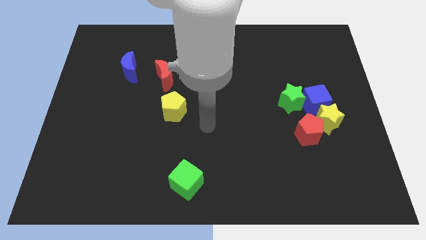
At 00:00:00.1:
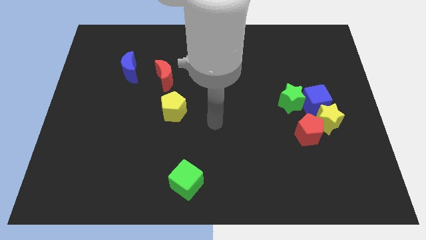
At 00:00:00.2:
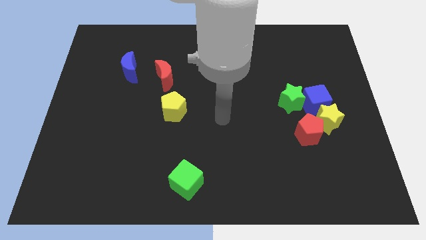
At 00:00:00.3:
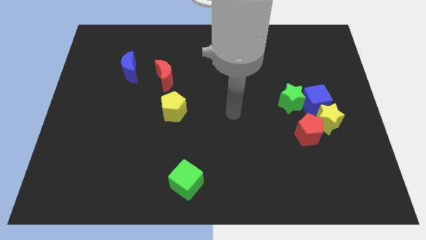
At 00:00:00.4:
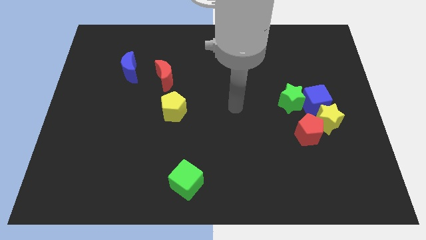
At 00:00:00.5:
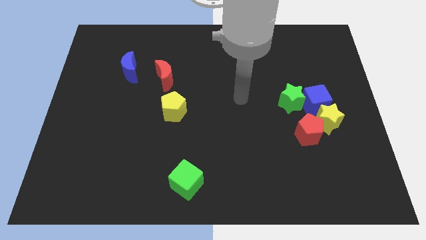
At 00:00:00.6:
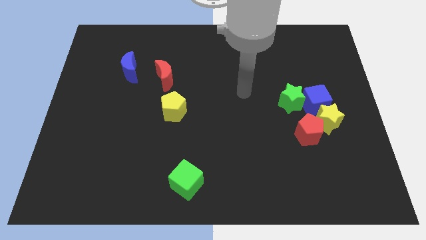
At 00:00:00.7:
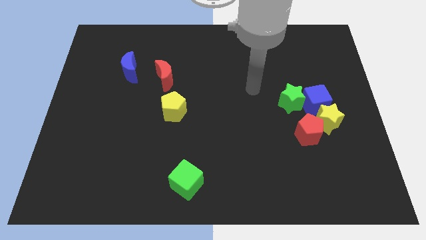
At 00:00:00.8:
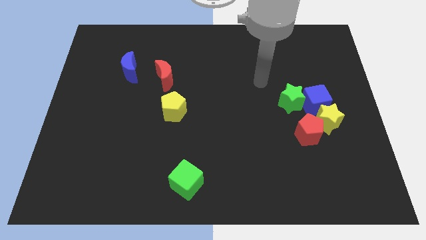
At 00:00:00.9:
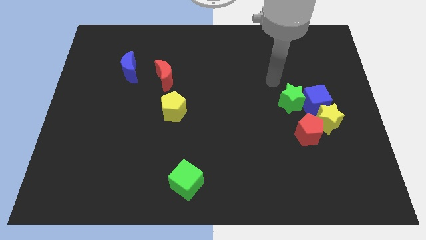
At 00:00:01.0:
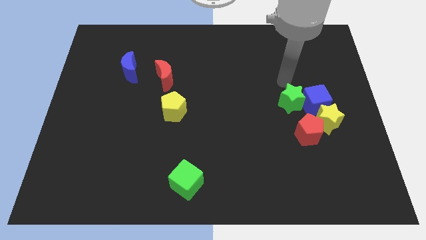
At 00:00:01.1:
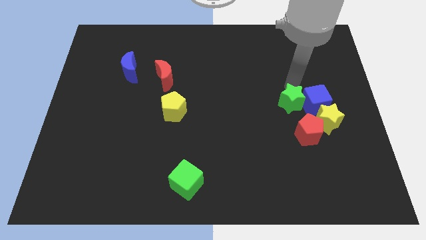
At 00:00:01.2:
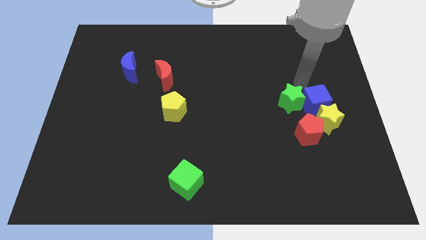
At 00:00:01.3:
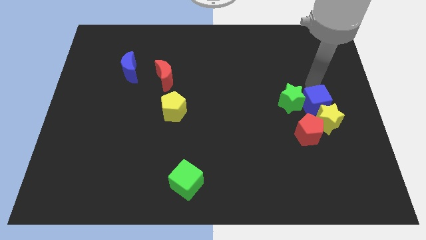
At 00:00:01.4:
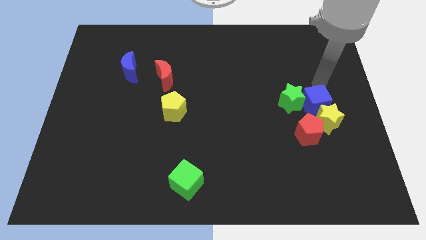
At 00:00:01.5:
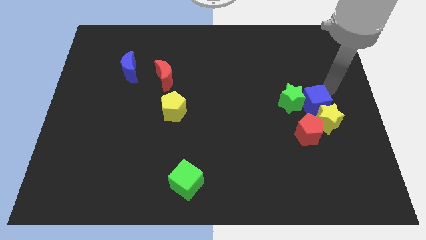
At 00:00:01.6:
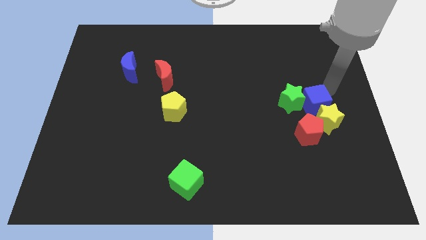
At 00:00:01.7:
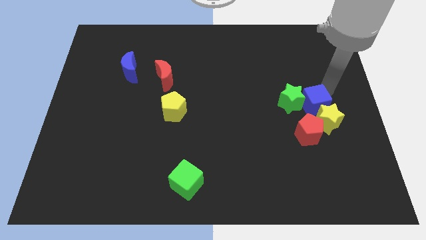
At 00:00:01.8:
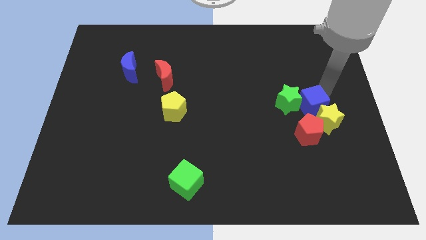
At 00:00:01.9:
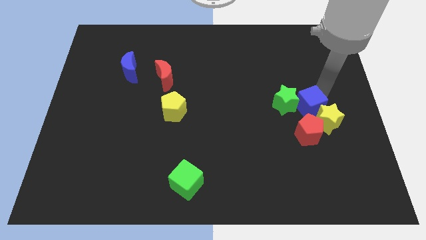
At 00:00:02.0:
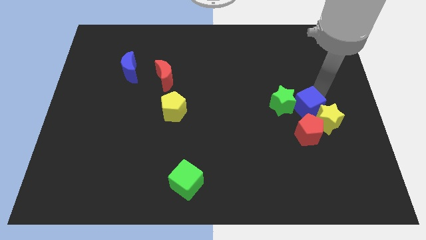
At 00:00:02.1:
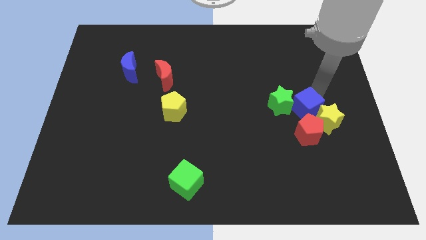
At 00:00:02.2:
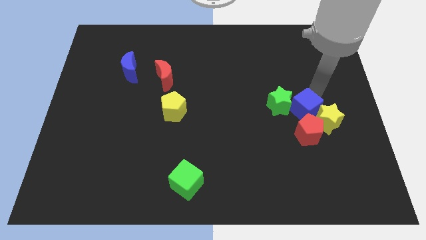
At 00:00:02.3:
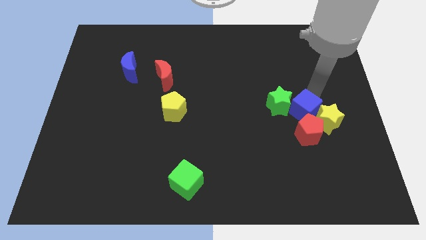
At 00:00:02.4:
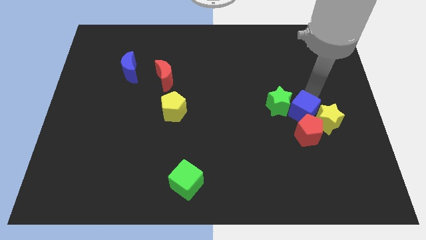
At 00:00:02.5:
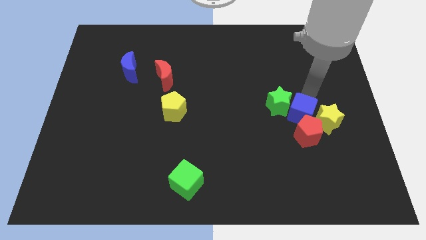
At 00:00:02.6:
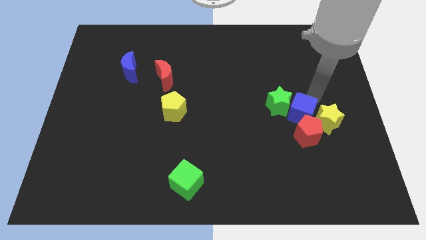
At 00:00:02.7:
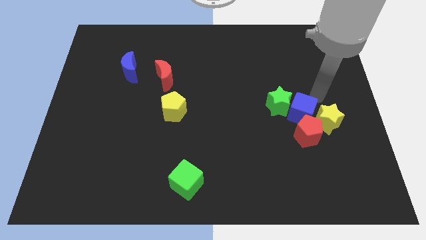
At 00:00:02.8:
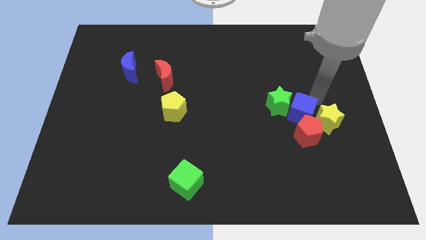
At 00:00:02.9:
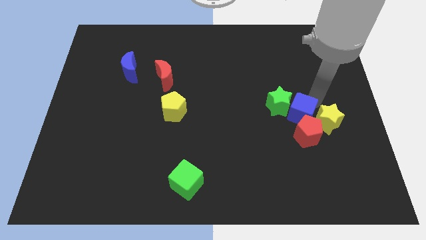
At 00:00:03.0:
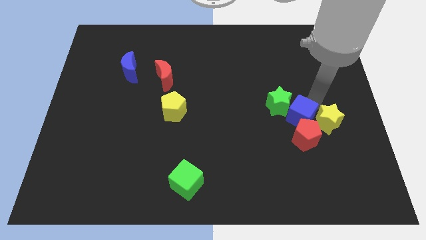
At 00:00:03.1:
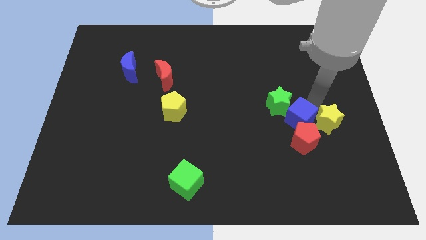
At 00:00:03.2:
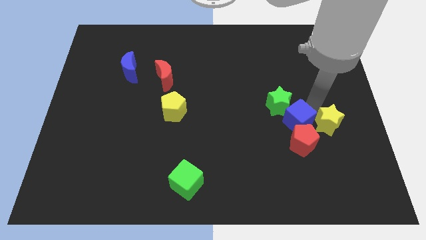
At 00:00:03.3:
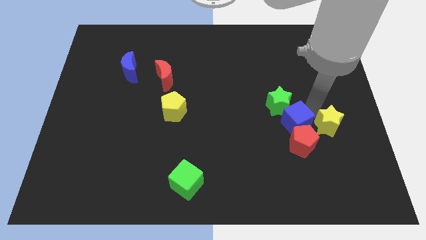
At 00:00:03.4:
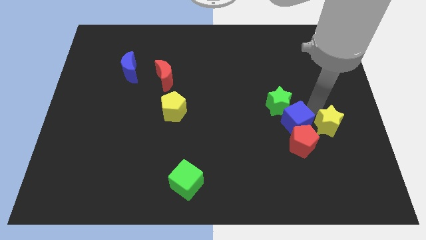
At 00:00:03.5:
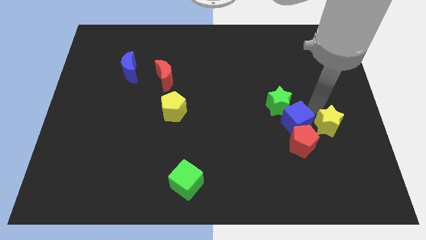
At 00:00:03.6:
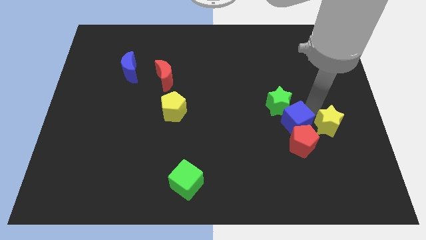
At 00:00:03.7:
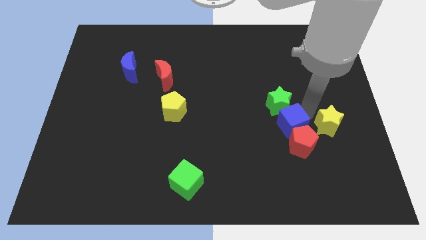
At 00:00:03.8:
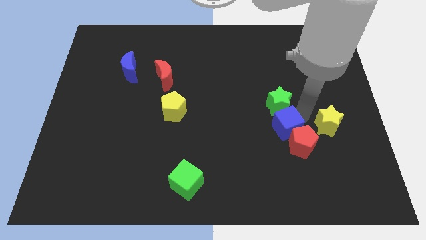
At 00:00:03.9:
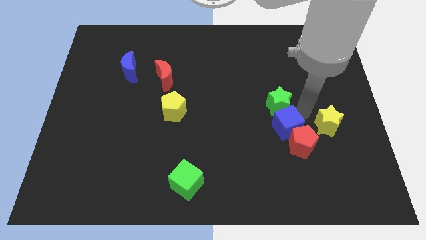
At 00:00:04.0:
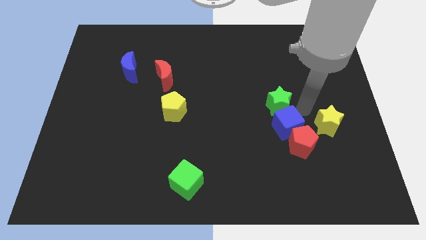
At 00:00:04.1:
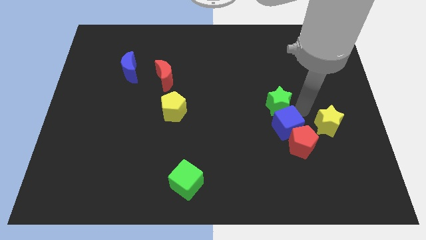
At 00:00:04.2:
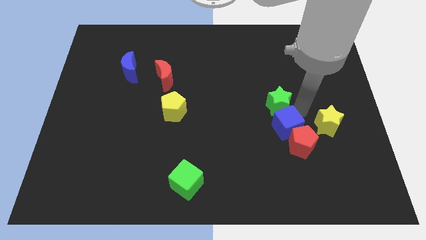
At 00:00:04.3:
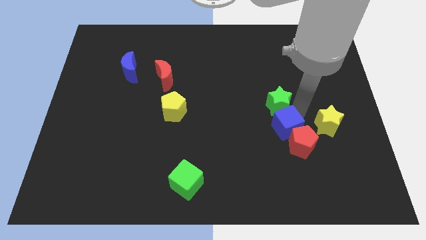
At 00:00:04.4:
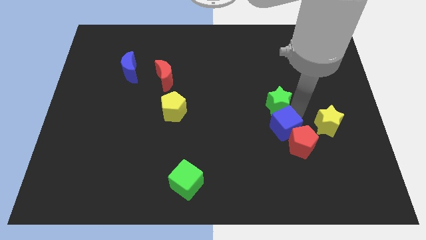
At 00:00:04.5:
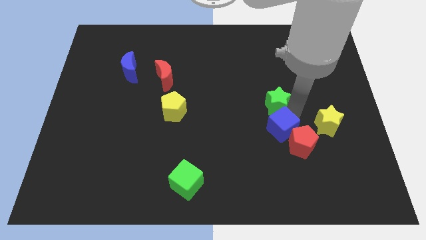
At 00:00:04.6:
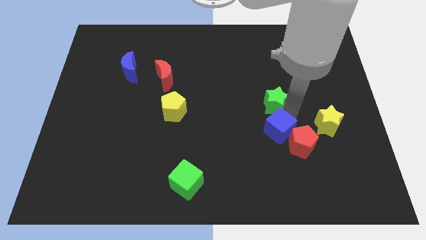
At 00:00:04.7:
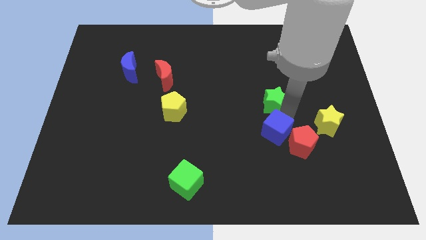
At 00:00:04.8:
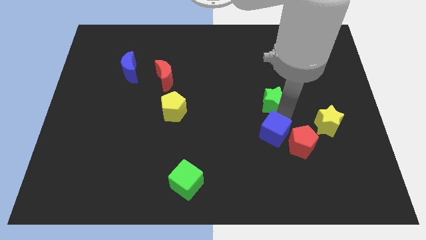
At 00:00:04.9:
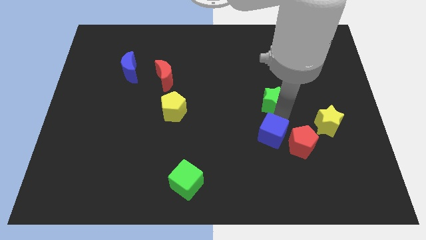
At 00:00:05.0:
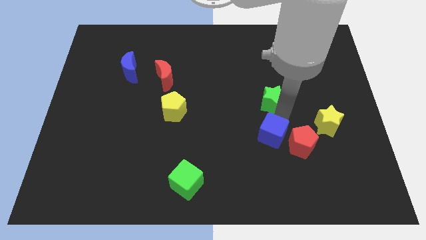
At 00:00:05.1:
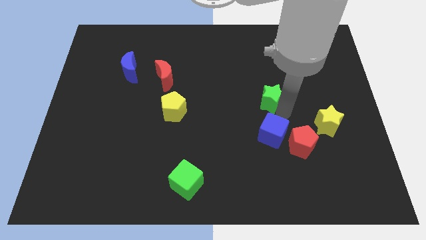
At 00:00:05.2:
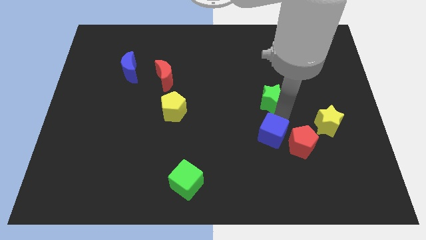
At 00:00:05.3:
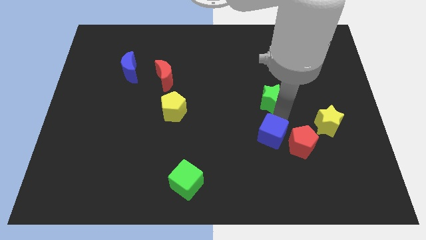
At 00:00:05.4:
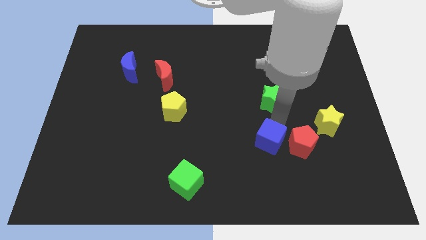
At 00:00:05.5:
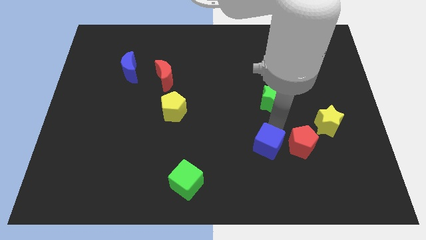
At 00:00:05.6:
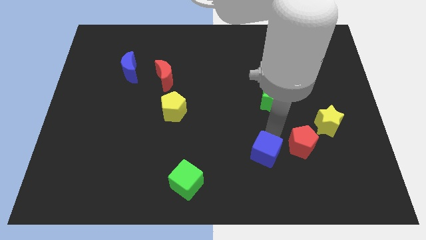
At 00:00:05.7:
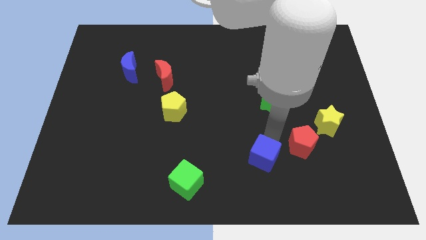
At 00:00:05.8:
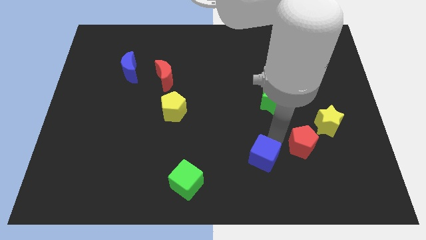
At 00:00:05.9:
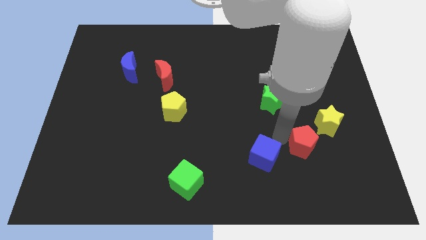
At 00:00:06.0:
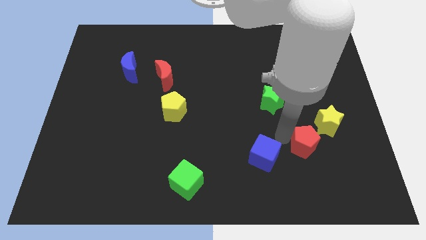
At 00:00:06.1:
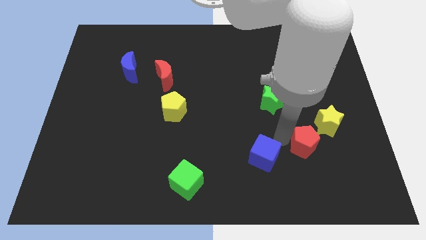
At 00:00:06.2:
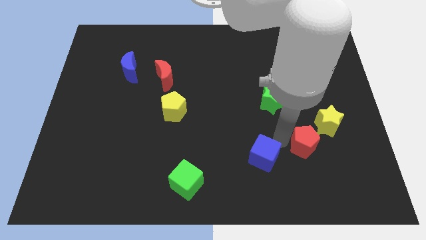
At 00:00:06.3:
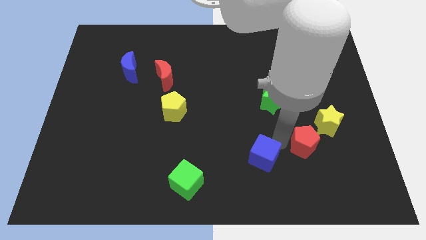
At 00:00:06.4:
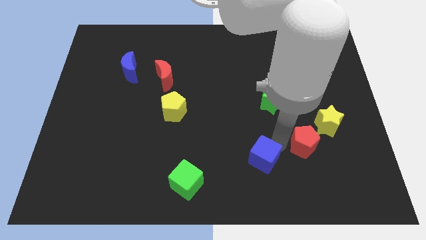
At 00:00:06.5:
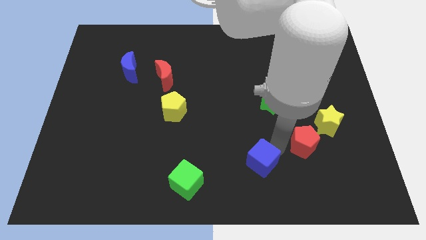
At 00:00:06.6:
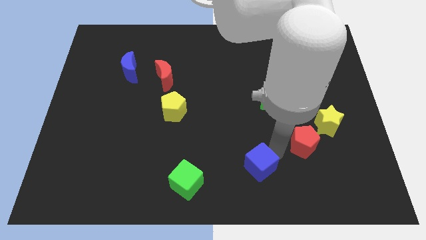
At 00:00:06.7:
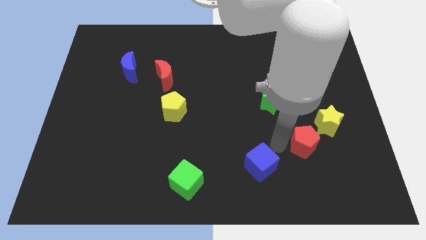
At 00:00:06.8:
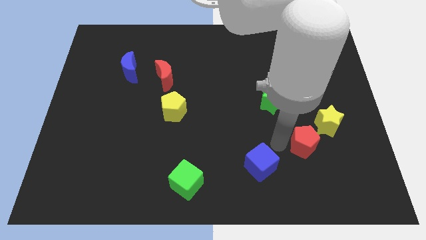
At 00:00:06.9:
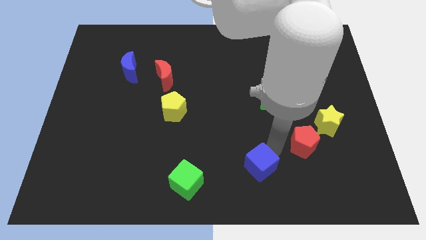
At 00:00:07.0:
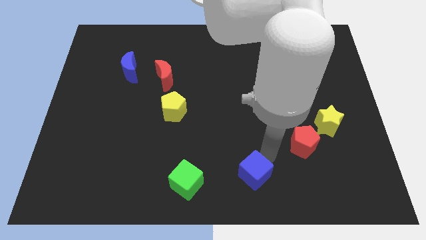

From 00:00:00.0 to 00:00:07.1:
move the blue cube to the bottom side

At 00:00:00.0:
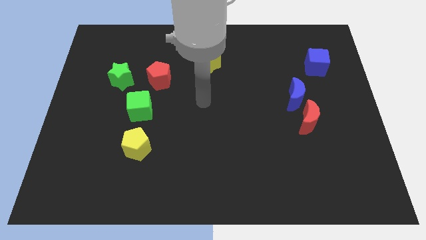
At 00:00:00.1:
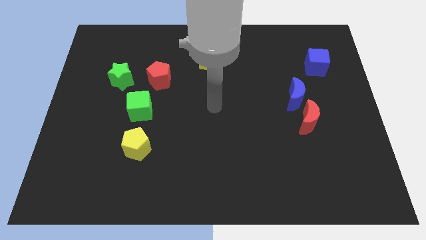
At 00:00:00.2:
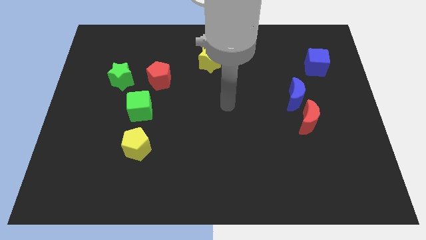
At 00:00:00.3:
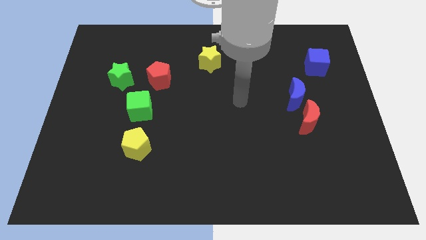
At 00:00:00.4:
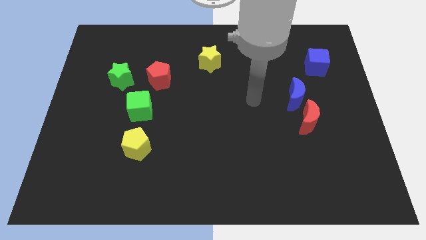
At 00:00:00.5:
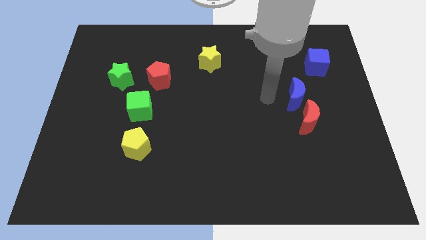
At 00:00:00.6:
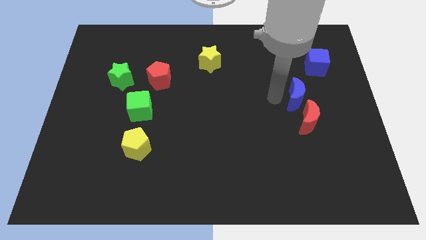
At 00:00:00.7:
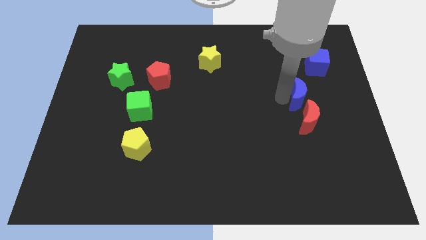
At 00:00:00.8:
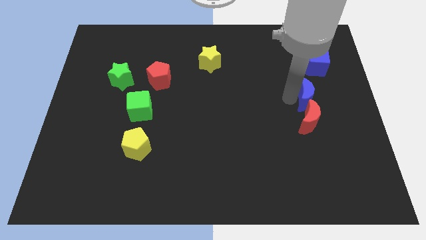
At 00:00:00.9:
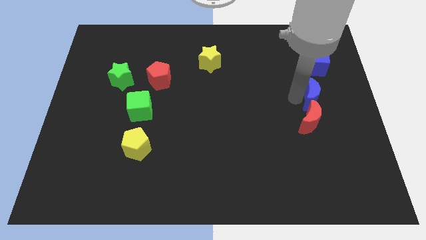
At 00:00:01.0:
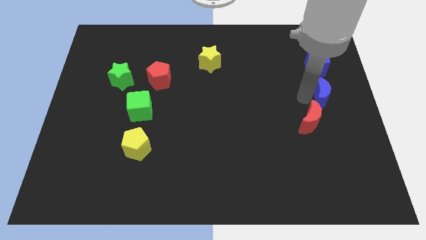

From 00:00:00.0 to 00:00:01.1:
move the blue moon to the right side
